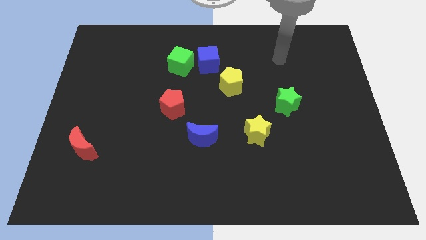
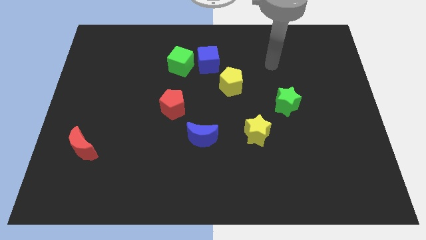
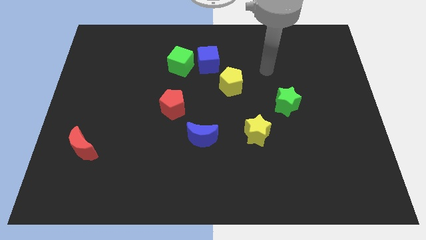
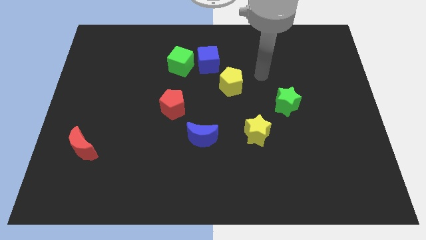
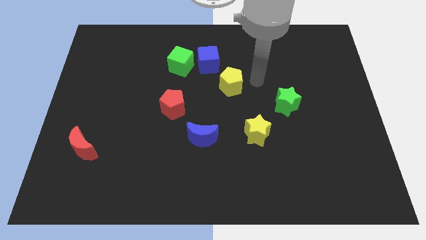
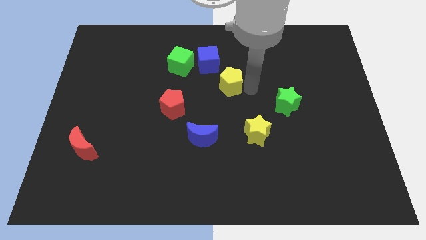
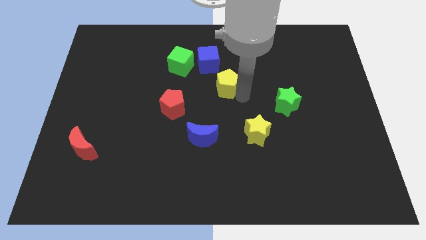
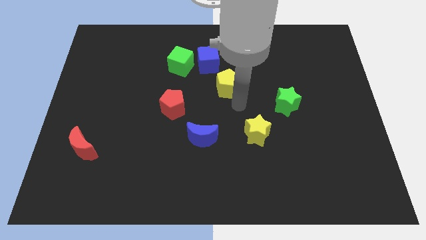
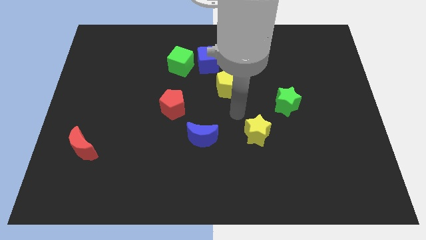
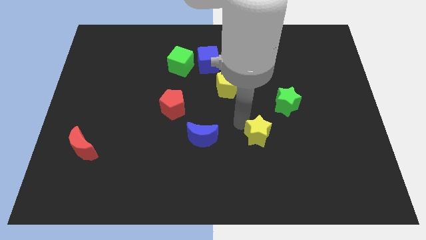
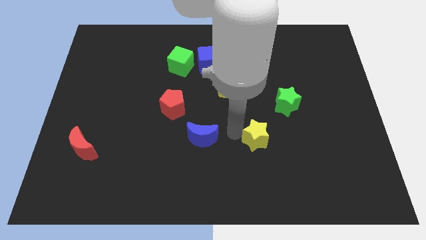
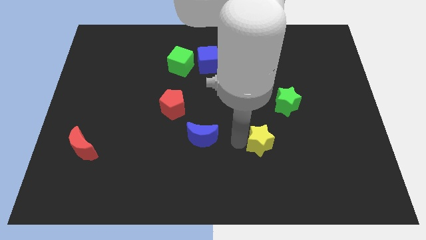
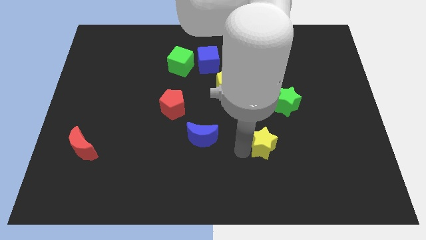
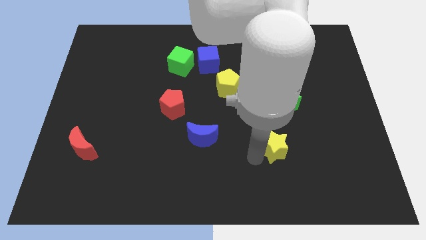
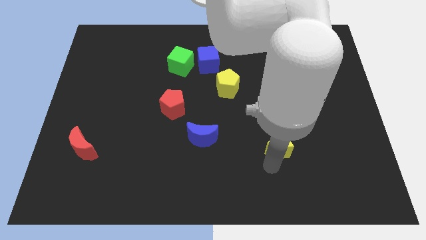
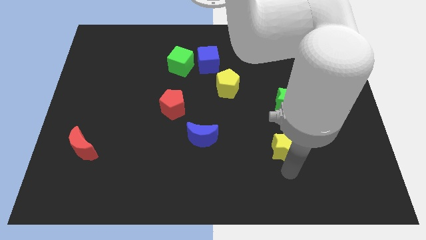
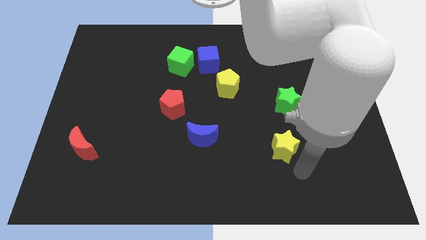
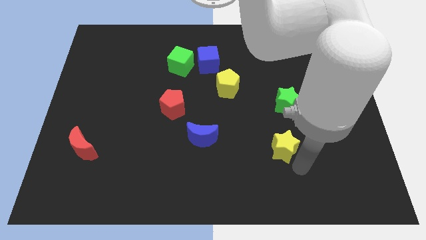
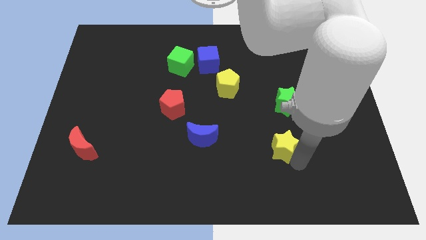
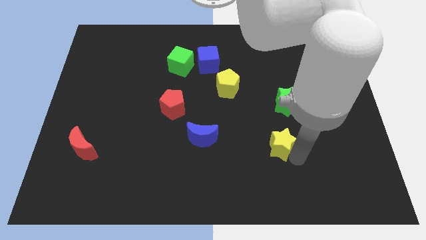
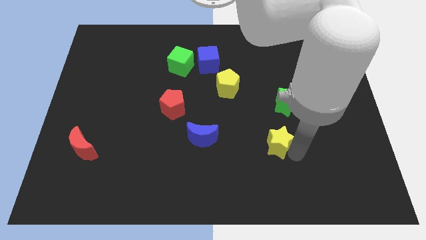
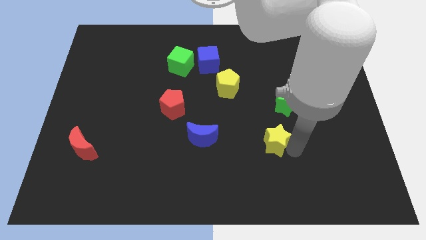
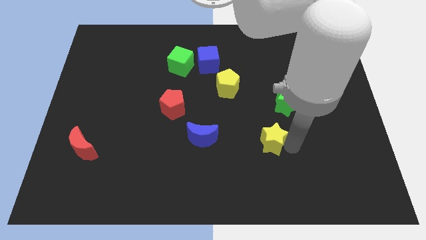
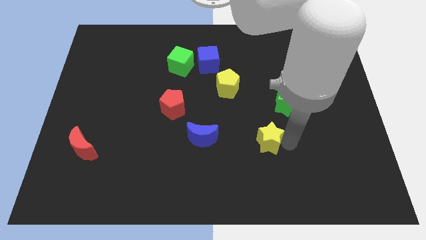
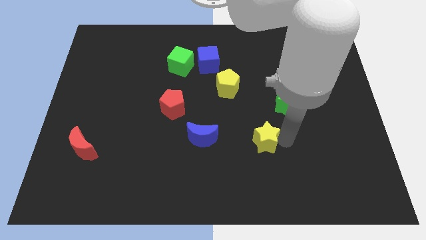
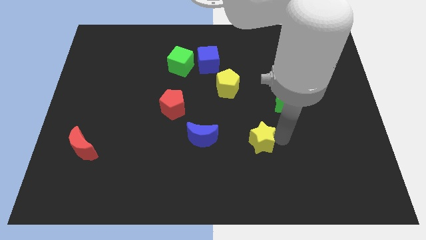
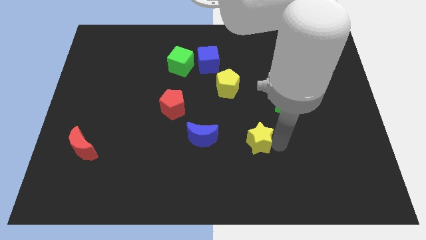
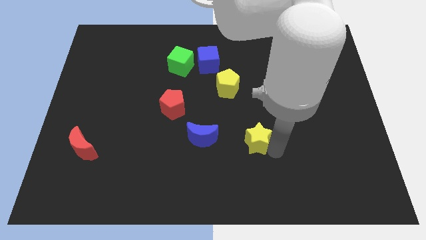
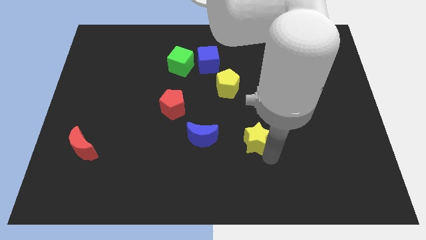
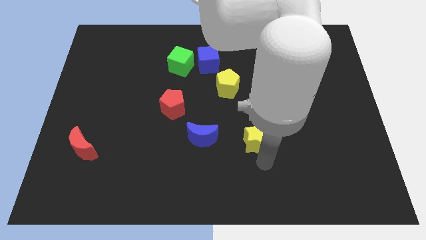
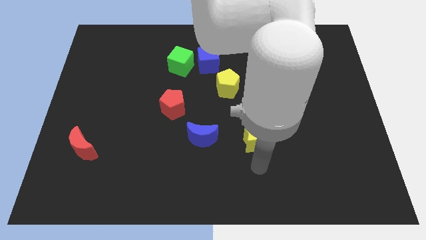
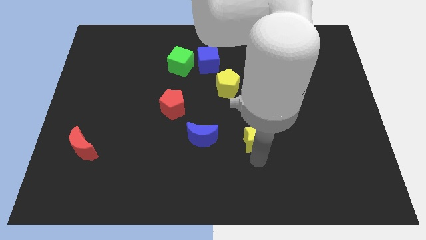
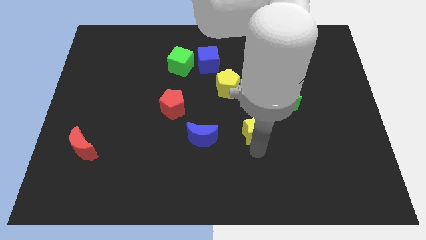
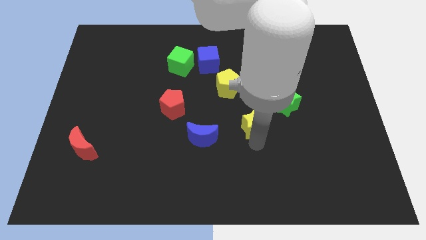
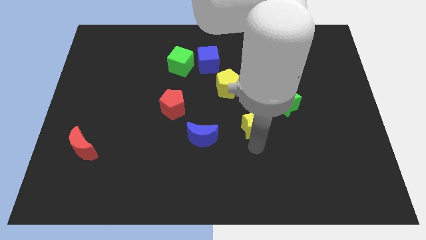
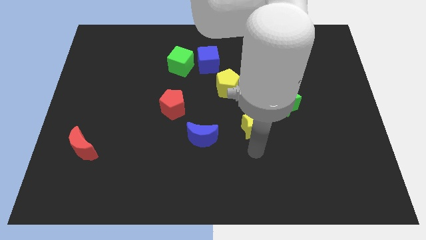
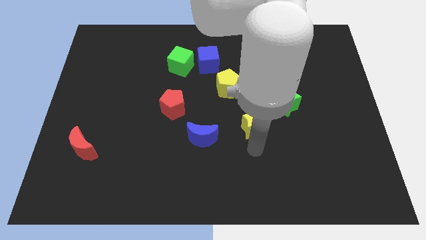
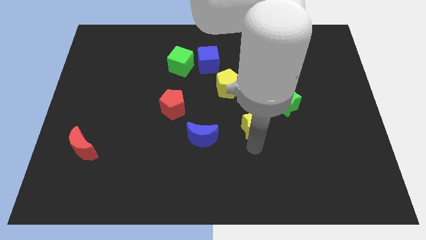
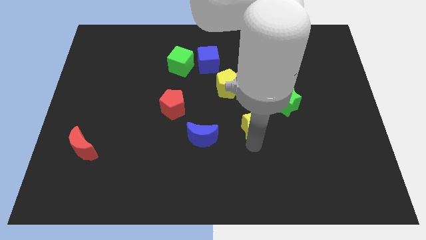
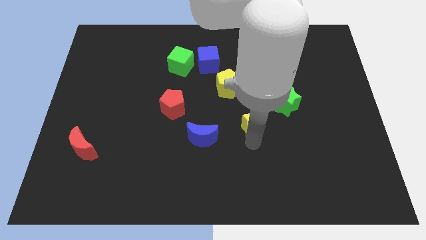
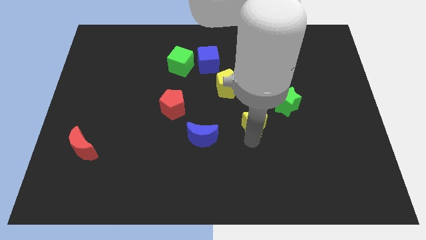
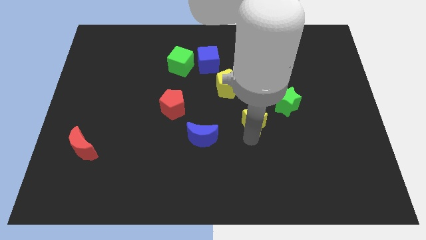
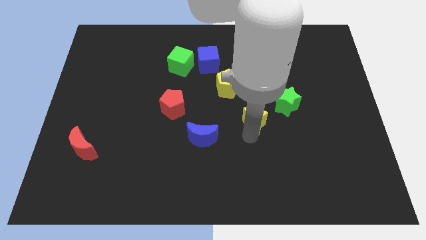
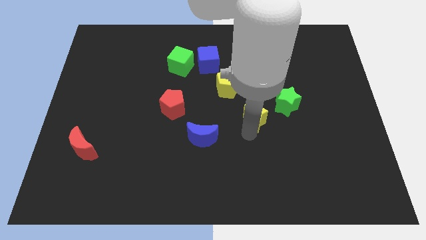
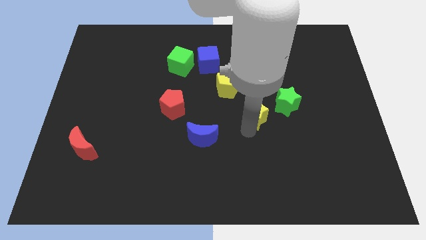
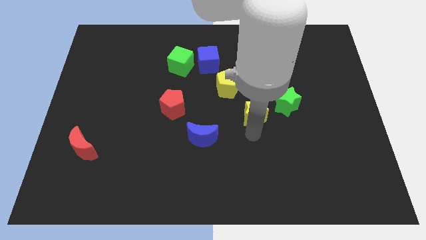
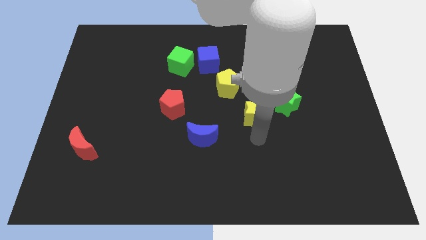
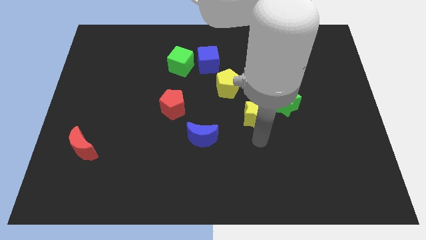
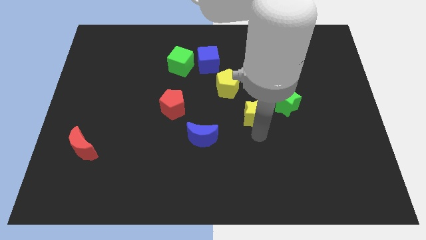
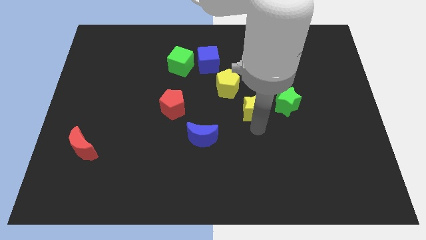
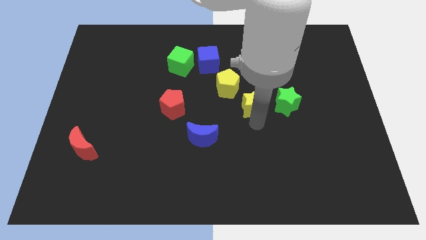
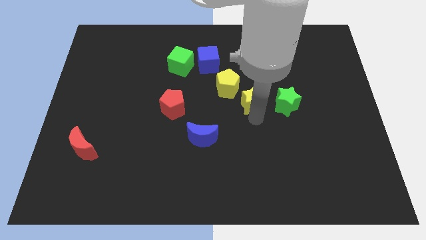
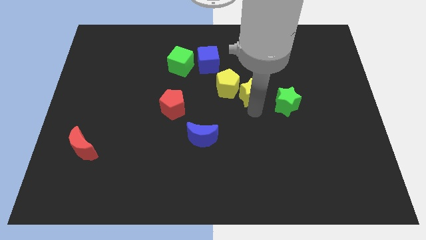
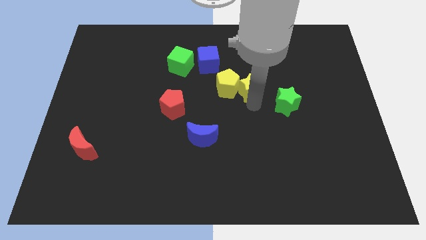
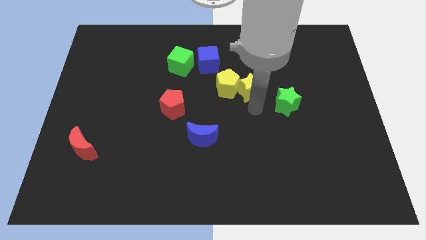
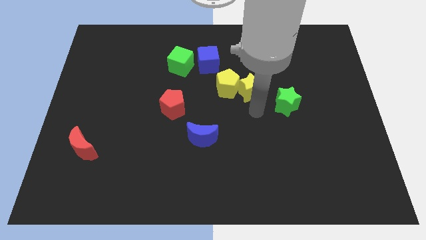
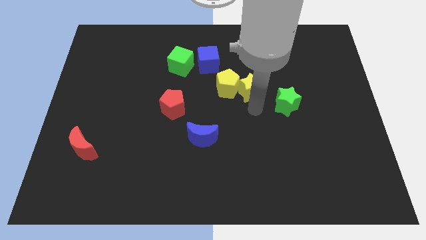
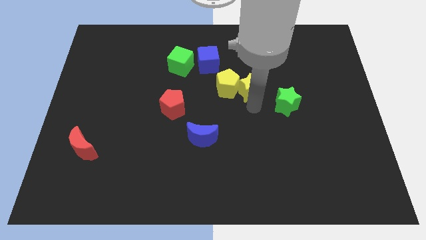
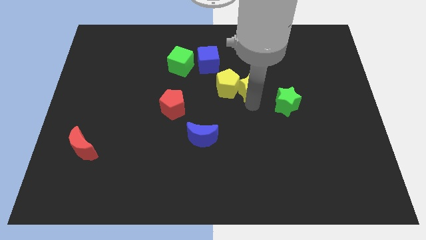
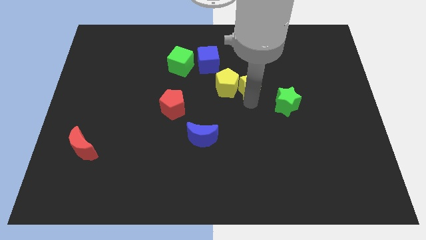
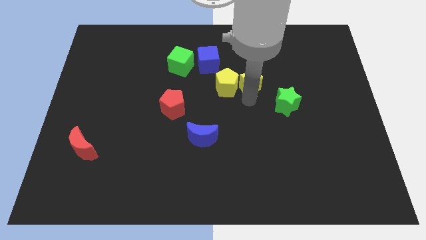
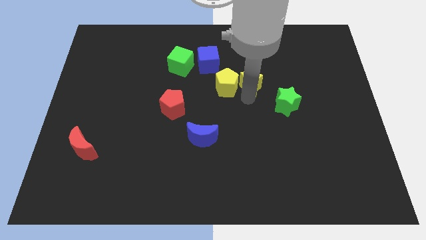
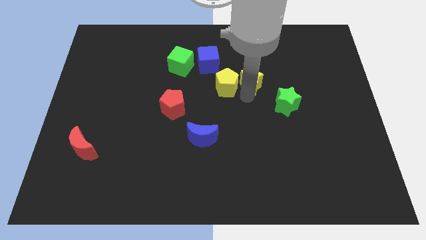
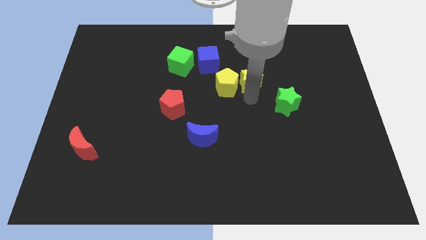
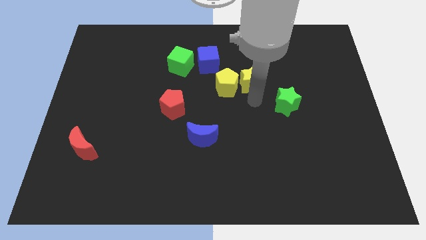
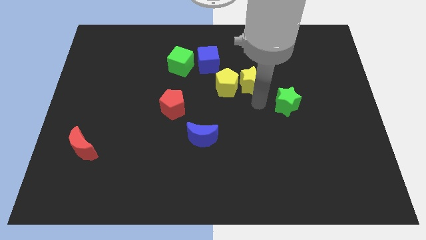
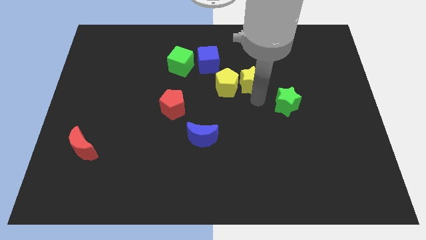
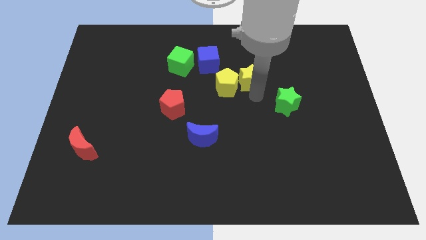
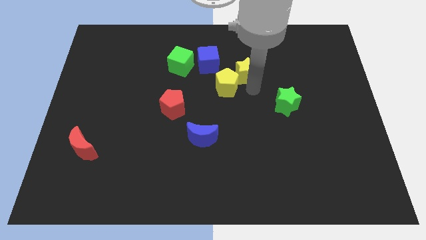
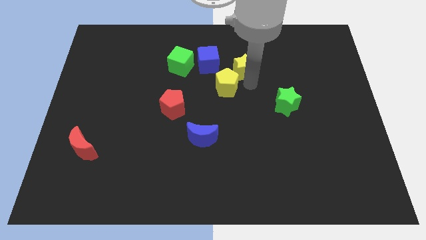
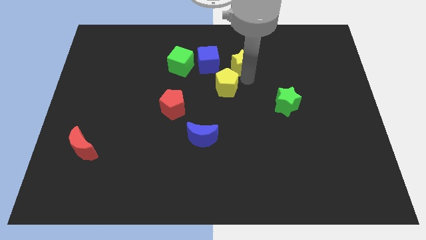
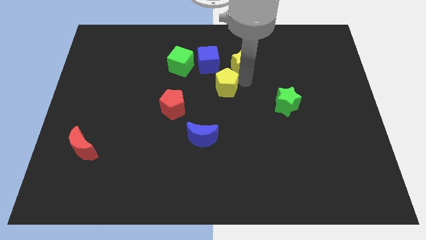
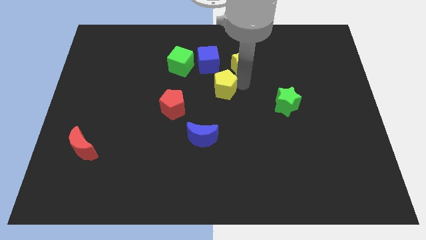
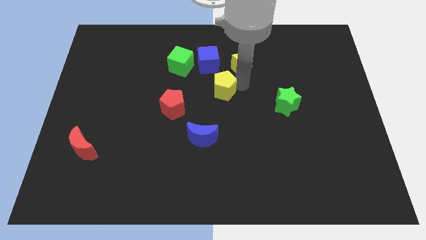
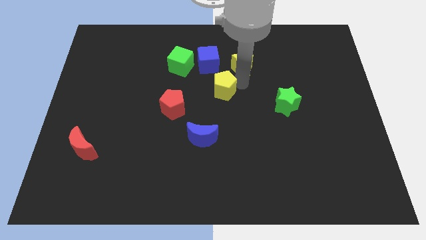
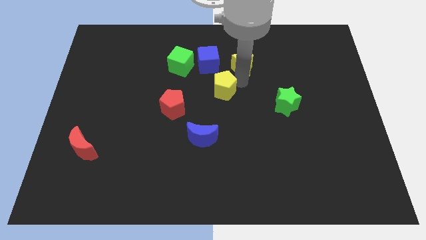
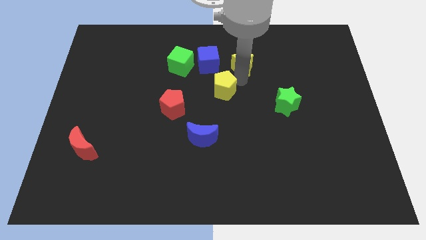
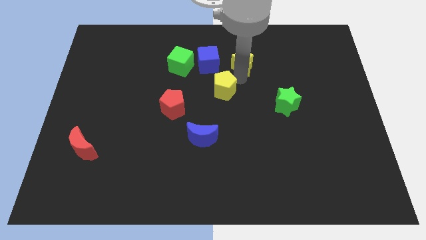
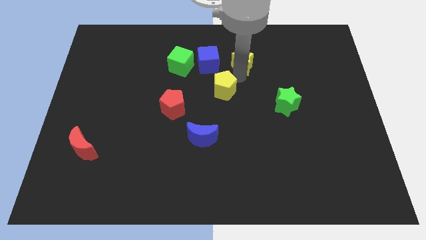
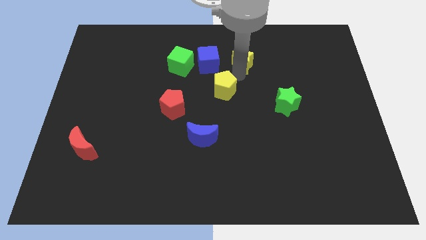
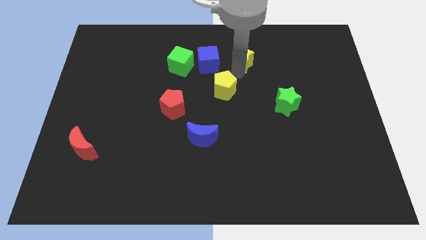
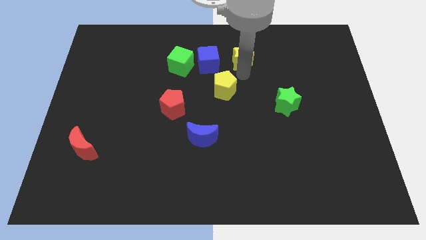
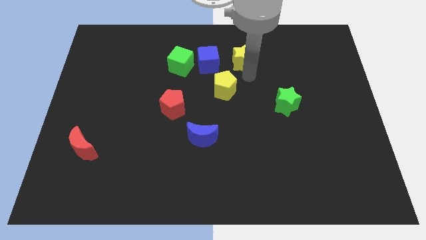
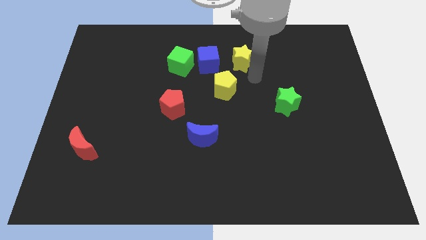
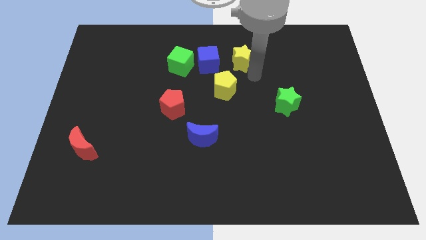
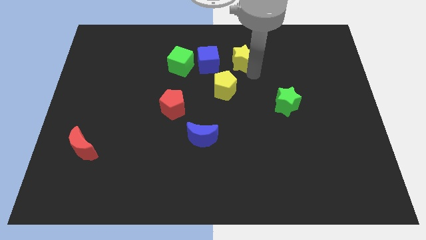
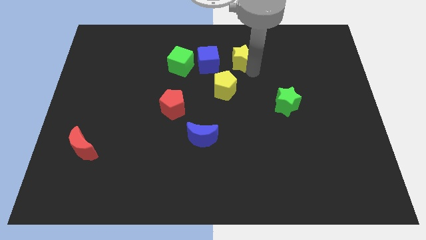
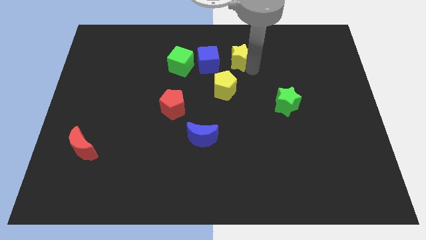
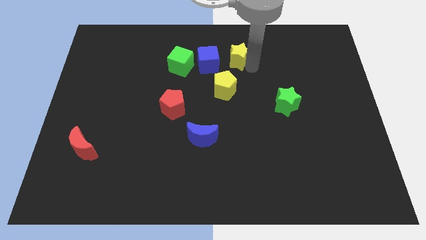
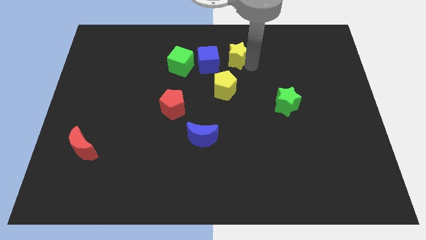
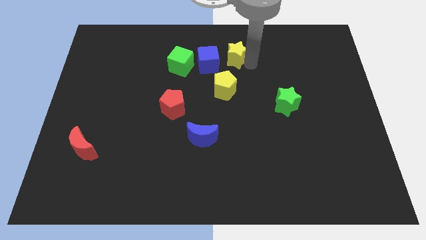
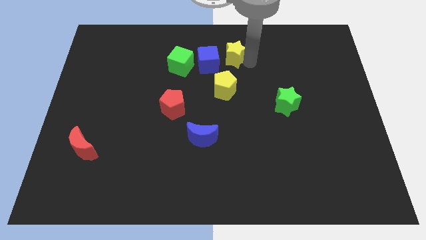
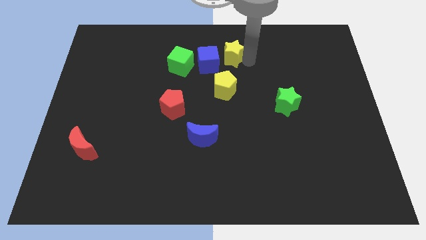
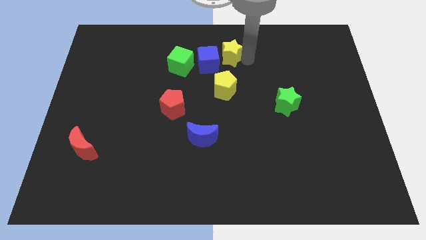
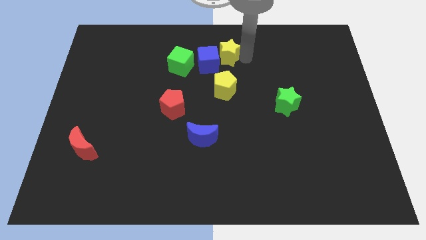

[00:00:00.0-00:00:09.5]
move the yellow star to the top
